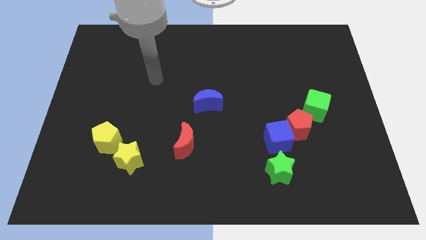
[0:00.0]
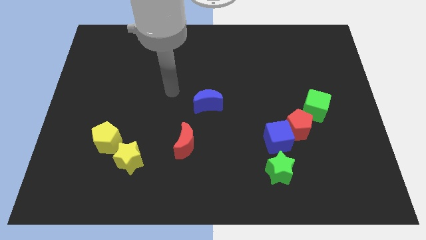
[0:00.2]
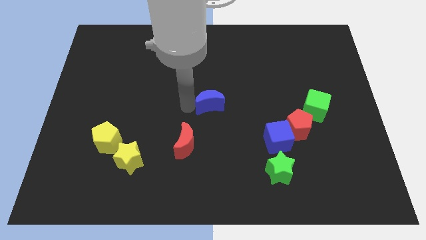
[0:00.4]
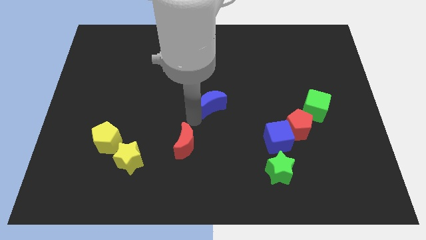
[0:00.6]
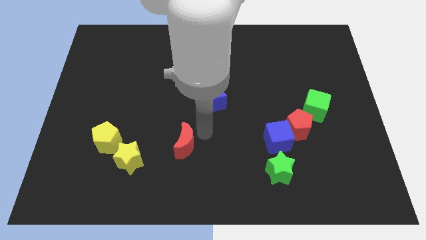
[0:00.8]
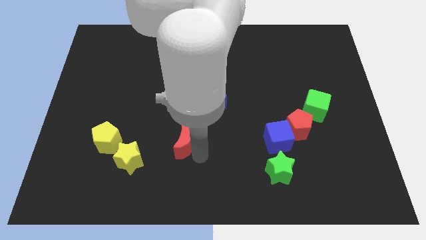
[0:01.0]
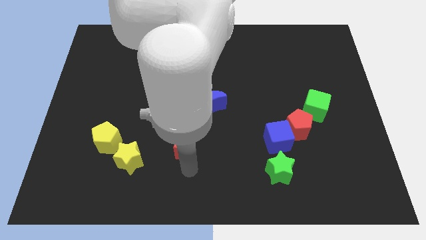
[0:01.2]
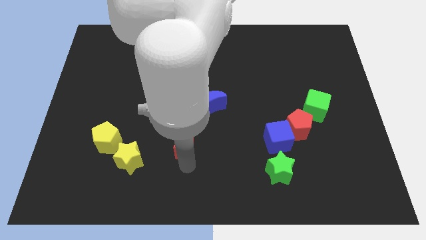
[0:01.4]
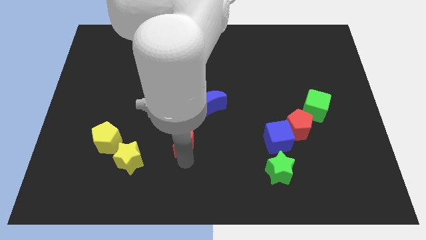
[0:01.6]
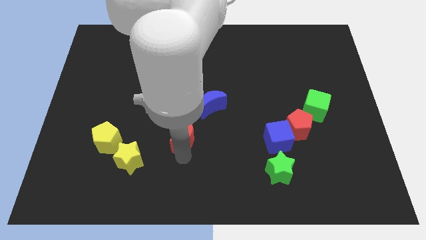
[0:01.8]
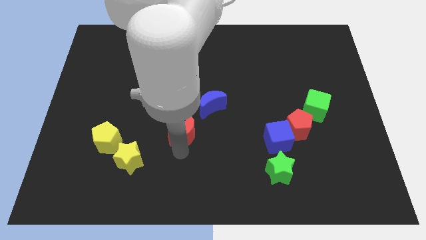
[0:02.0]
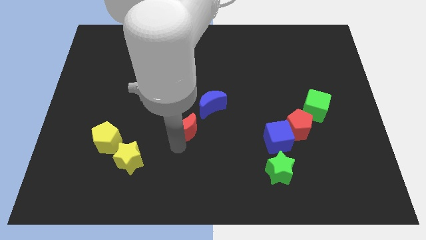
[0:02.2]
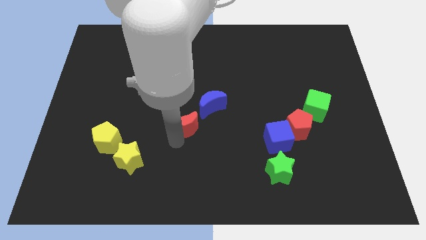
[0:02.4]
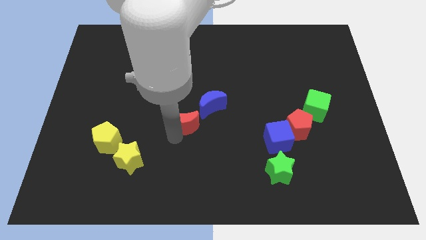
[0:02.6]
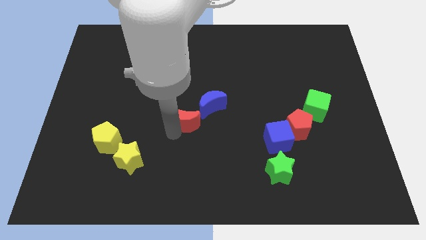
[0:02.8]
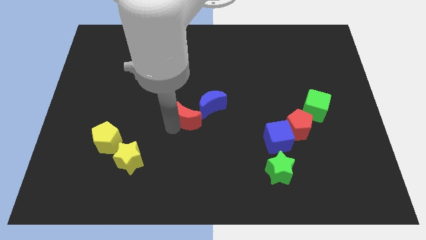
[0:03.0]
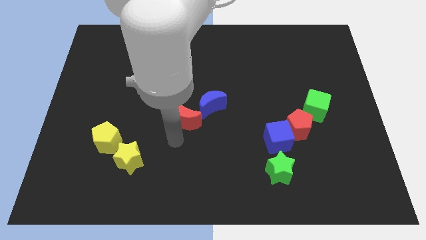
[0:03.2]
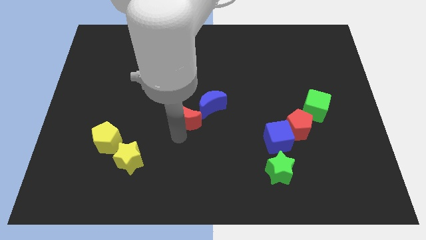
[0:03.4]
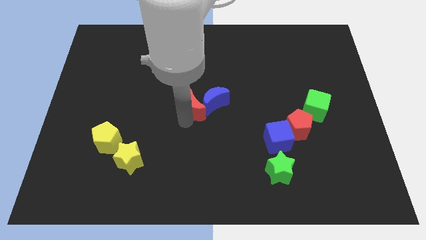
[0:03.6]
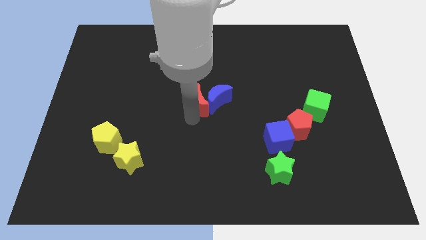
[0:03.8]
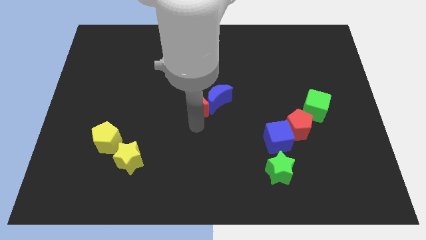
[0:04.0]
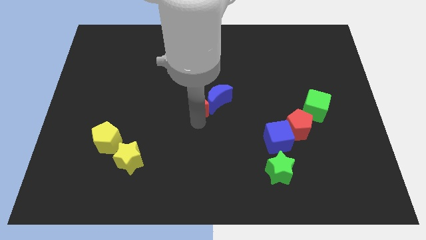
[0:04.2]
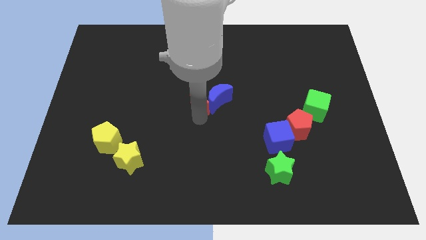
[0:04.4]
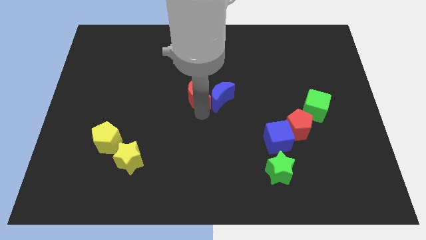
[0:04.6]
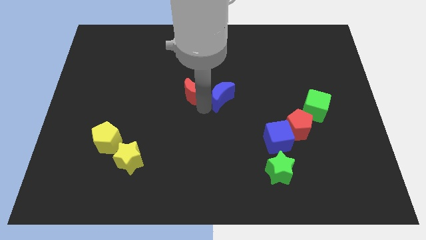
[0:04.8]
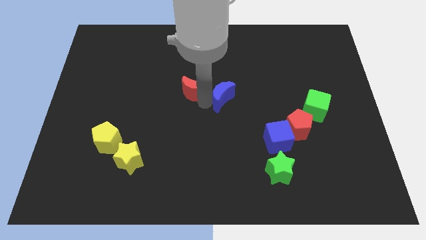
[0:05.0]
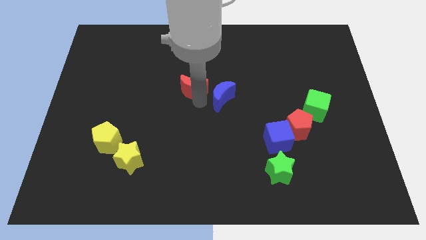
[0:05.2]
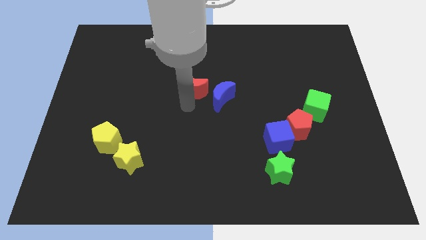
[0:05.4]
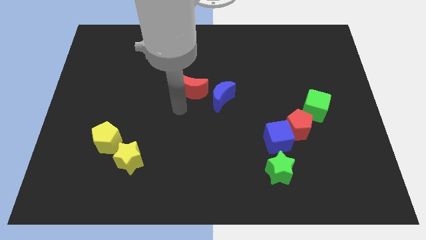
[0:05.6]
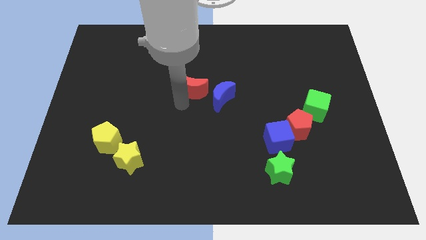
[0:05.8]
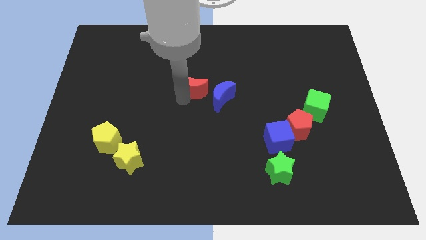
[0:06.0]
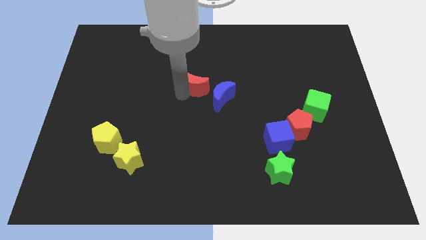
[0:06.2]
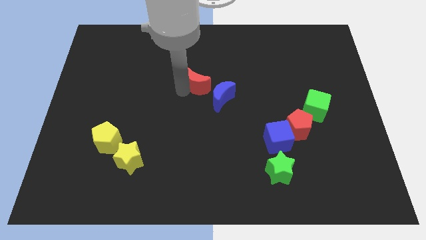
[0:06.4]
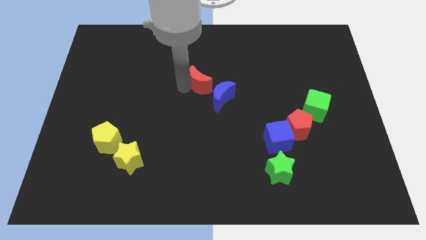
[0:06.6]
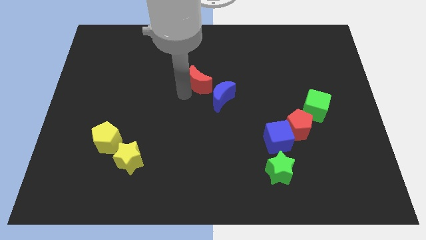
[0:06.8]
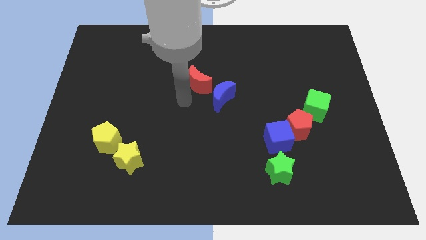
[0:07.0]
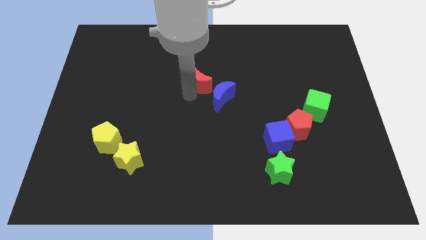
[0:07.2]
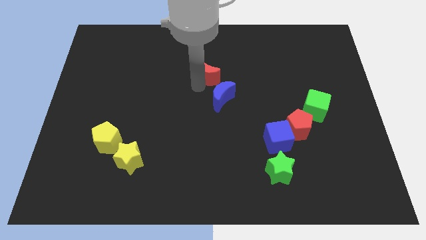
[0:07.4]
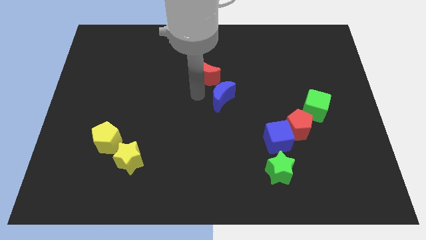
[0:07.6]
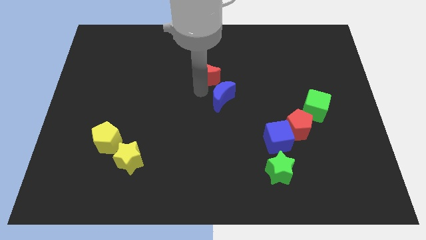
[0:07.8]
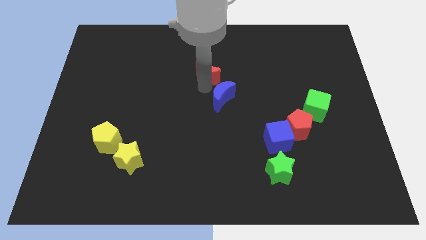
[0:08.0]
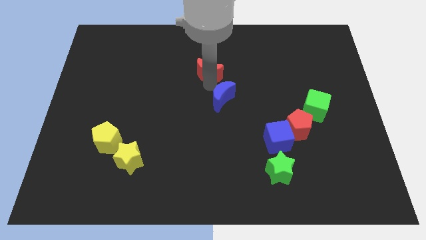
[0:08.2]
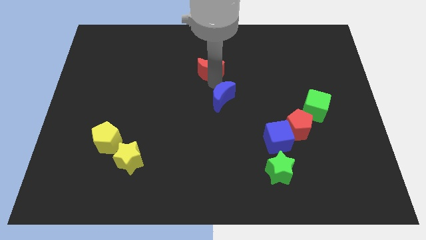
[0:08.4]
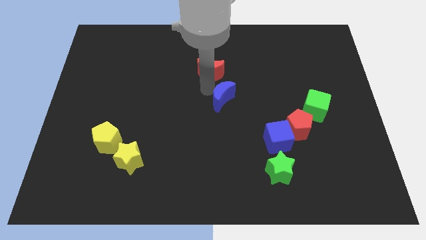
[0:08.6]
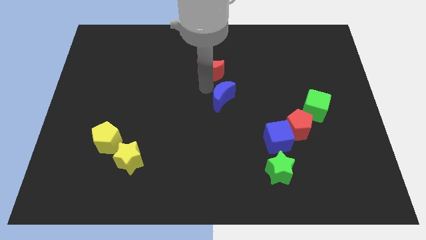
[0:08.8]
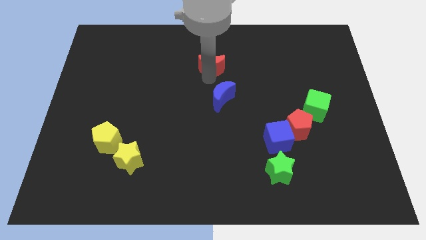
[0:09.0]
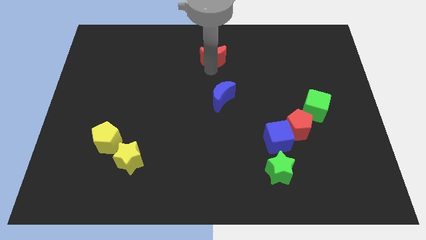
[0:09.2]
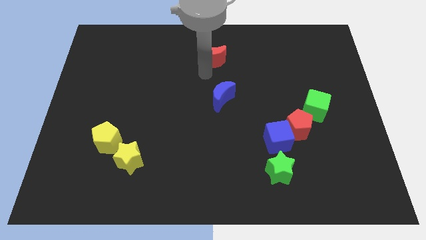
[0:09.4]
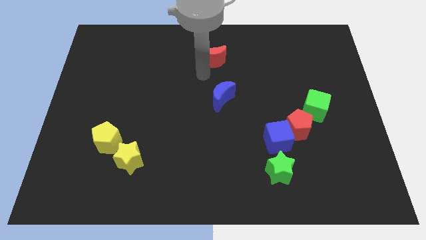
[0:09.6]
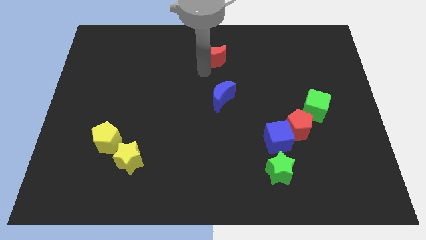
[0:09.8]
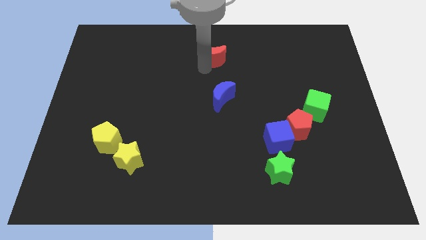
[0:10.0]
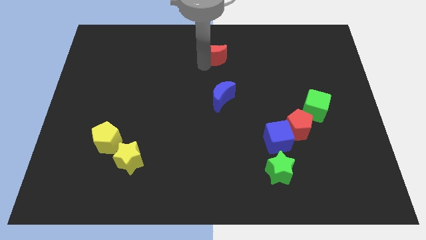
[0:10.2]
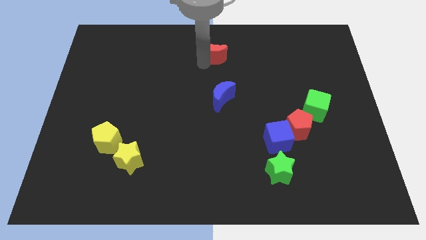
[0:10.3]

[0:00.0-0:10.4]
push the red moon to the top

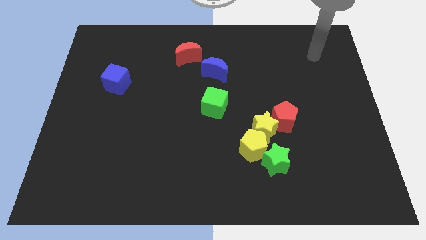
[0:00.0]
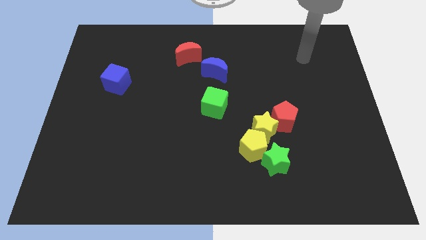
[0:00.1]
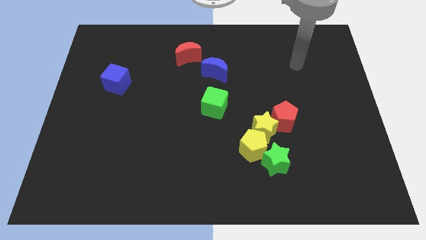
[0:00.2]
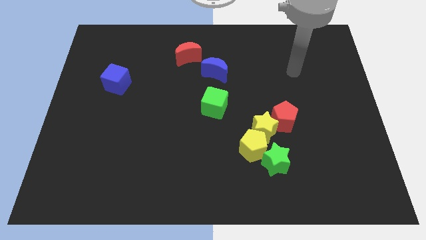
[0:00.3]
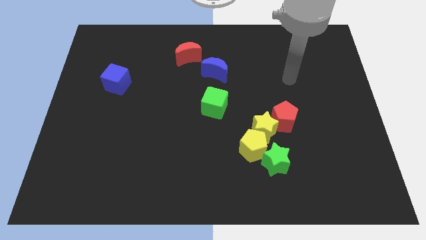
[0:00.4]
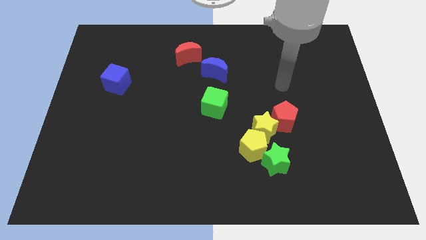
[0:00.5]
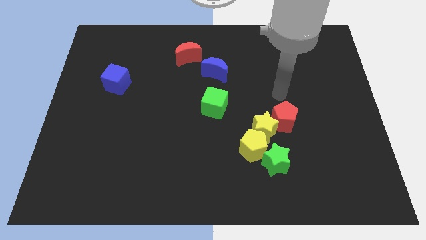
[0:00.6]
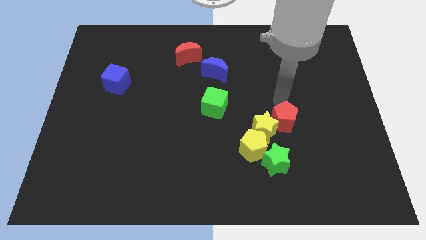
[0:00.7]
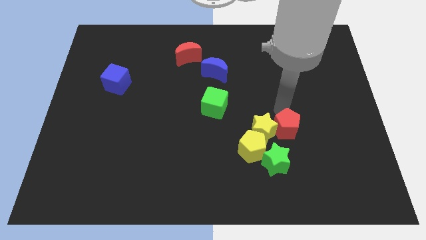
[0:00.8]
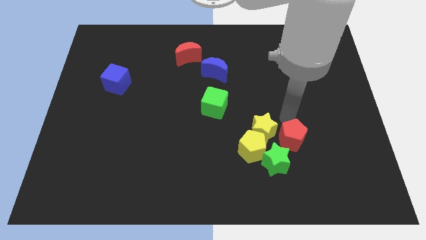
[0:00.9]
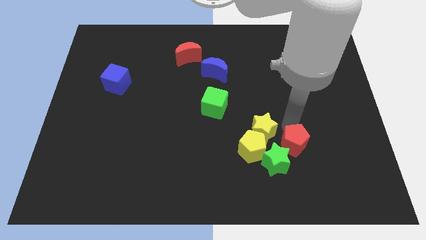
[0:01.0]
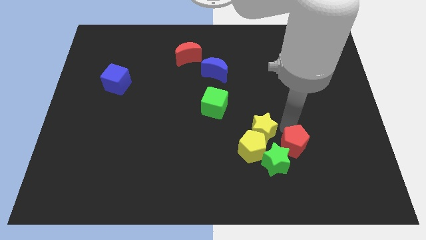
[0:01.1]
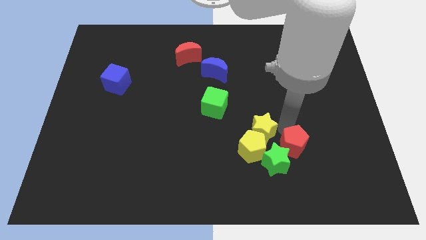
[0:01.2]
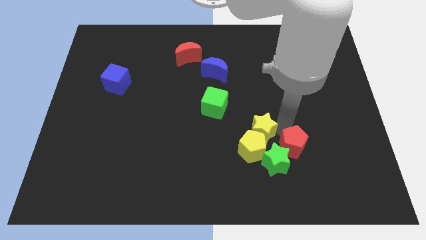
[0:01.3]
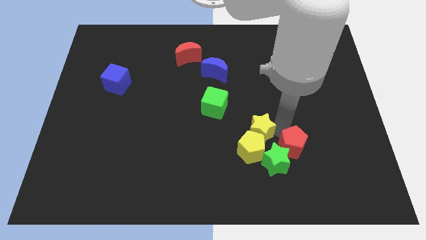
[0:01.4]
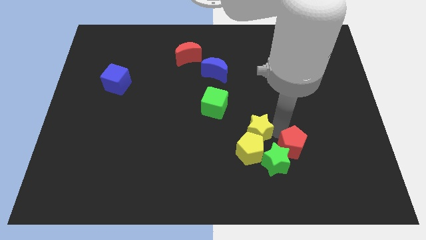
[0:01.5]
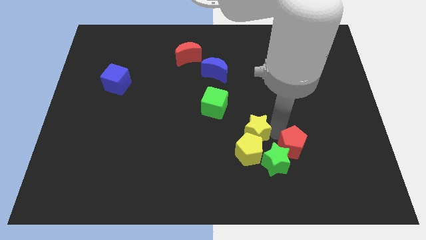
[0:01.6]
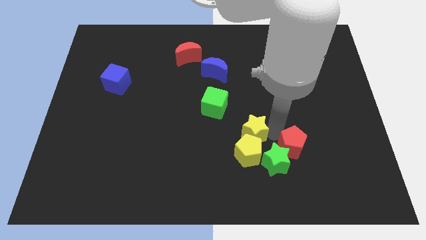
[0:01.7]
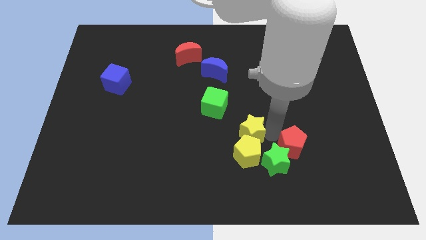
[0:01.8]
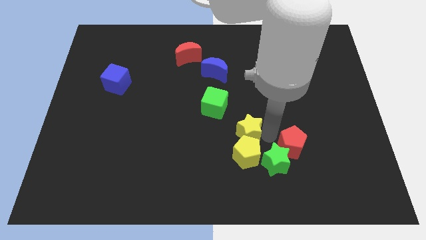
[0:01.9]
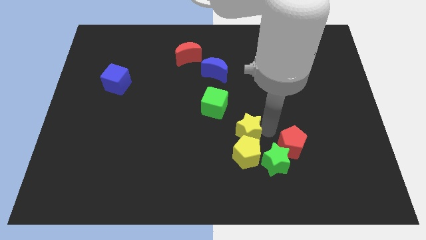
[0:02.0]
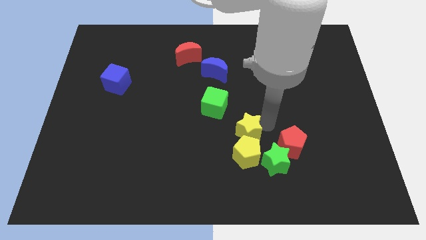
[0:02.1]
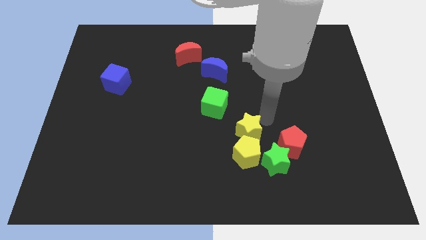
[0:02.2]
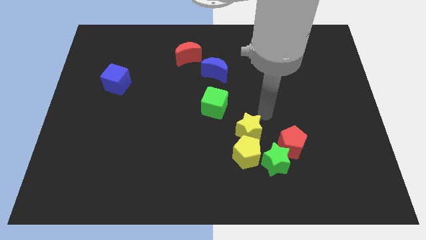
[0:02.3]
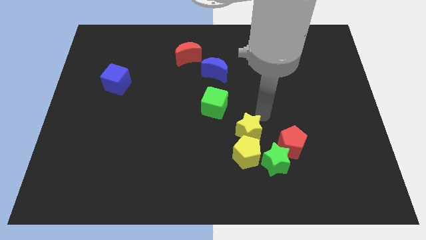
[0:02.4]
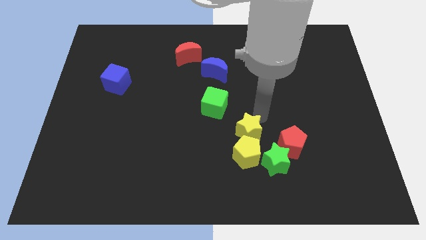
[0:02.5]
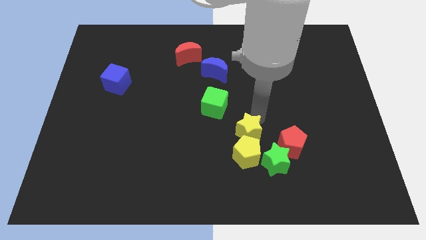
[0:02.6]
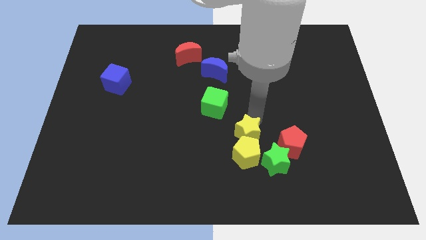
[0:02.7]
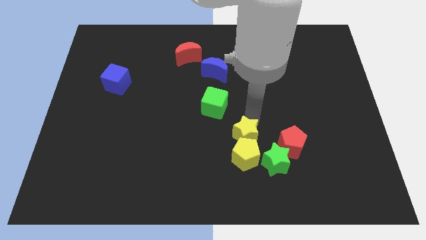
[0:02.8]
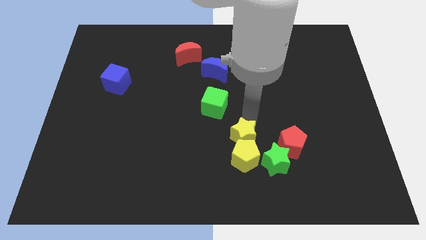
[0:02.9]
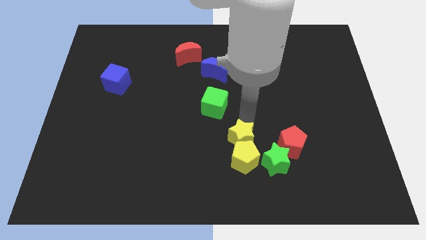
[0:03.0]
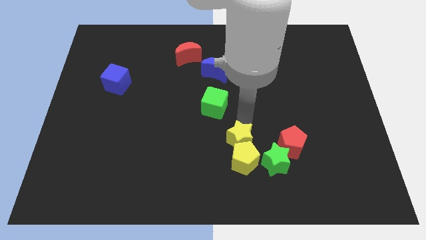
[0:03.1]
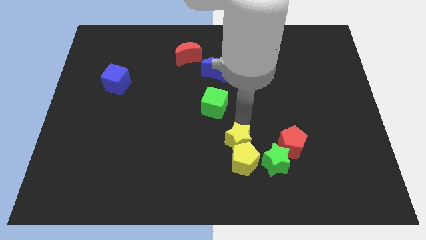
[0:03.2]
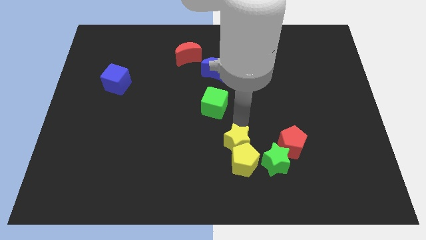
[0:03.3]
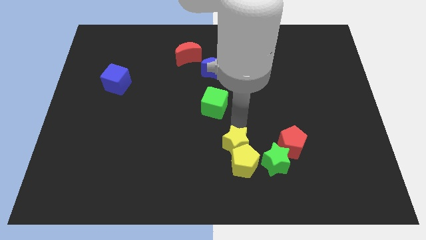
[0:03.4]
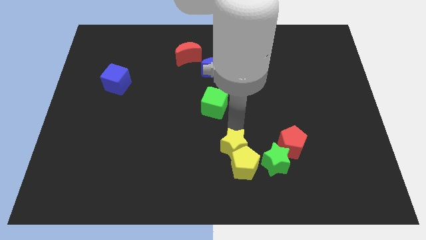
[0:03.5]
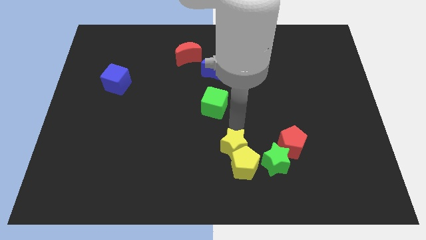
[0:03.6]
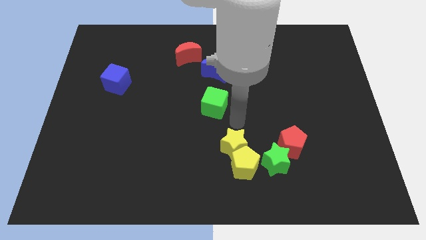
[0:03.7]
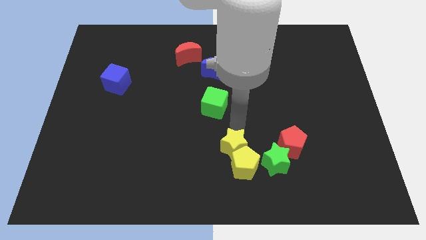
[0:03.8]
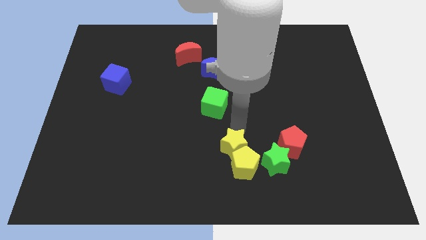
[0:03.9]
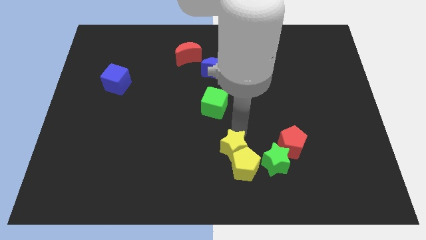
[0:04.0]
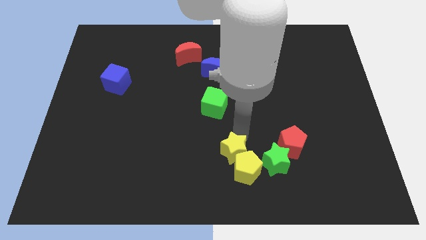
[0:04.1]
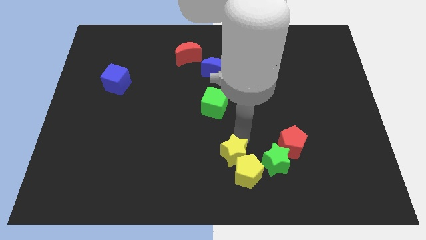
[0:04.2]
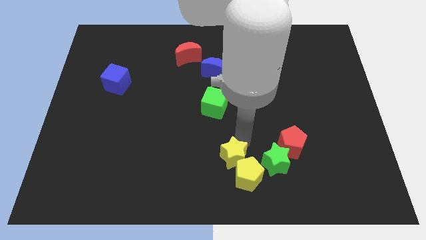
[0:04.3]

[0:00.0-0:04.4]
put the yellow star to the bottom
